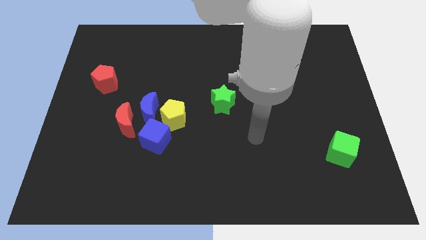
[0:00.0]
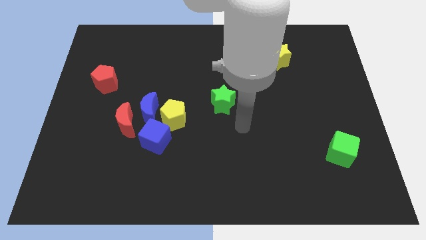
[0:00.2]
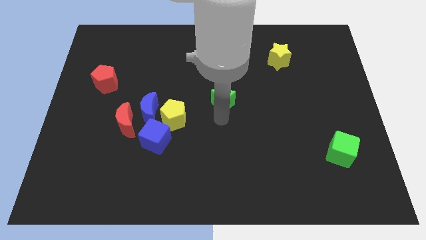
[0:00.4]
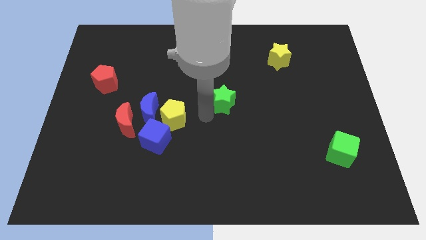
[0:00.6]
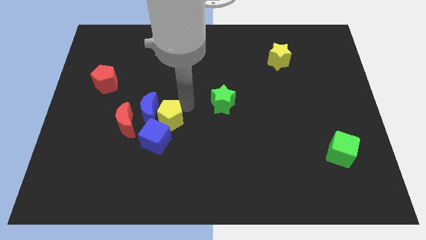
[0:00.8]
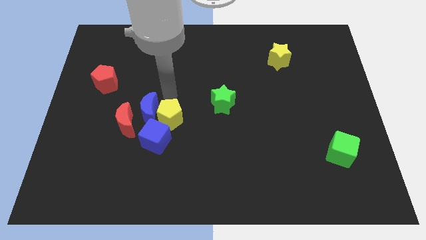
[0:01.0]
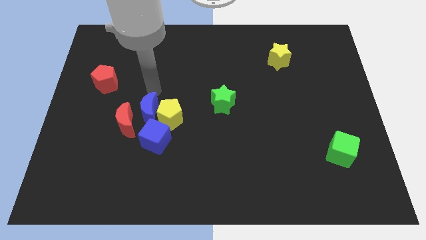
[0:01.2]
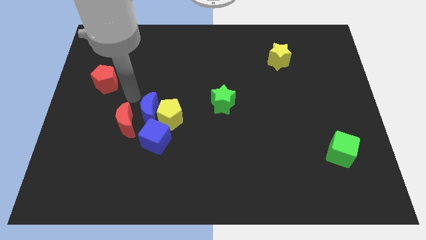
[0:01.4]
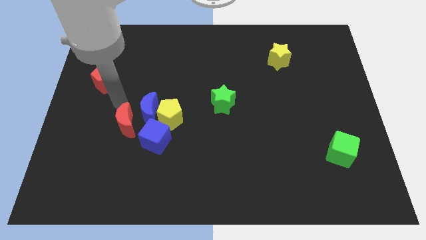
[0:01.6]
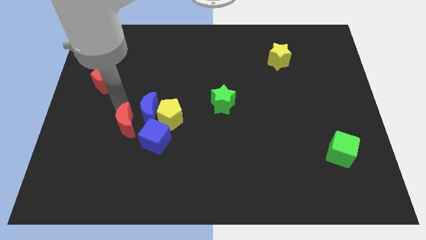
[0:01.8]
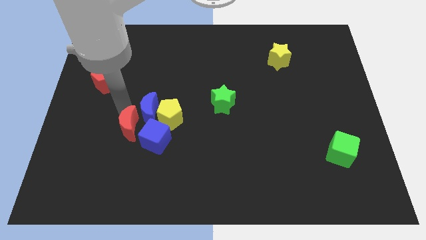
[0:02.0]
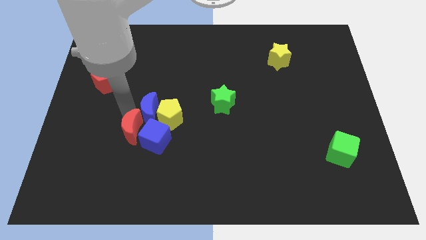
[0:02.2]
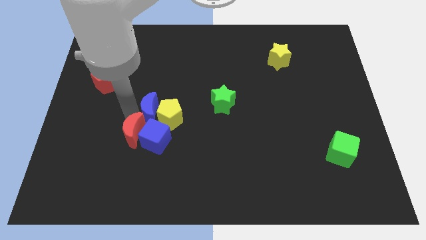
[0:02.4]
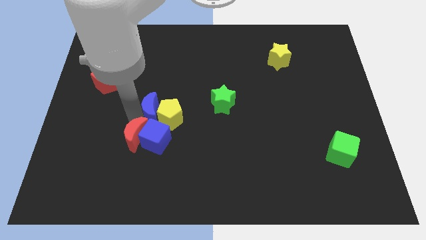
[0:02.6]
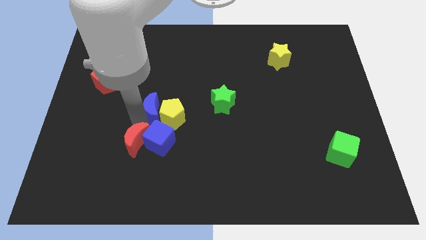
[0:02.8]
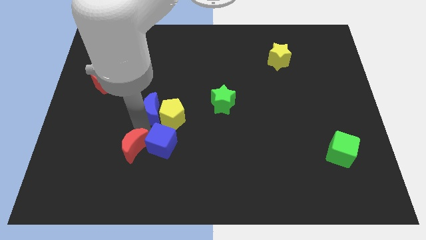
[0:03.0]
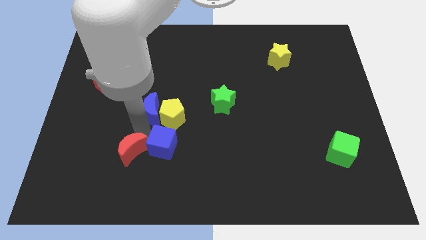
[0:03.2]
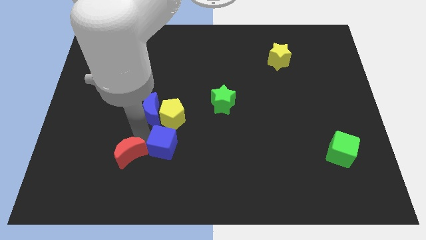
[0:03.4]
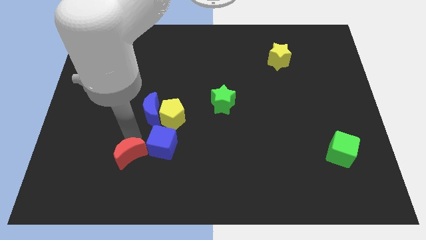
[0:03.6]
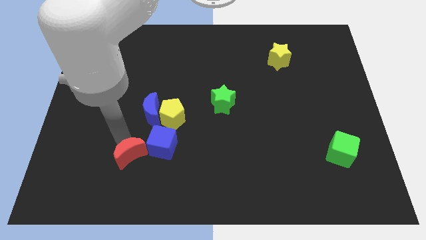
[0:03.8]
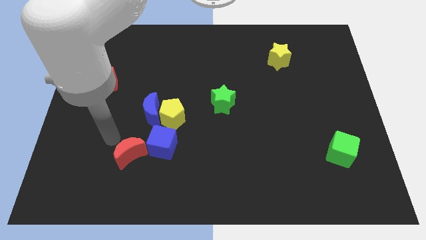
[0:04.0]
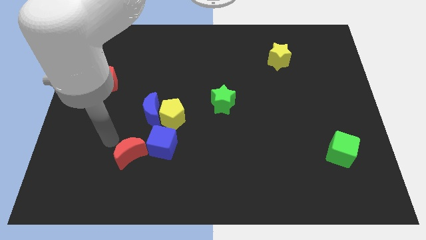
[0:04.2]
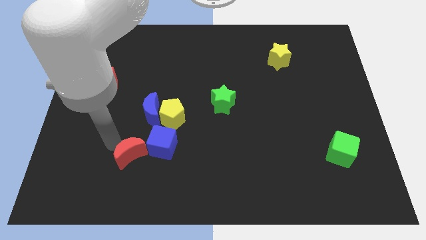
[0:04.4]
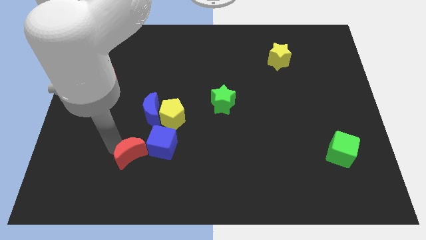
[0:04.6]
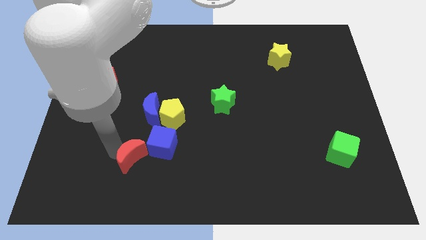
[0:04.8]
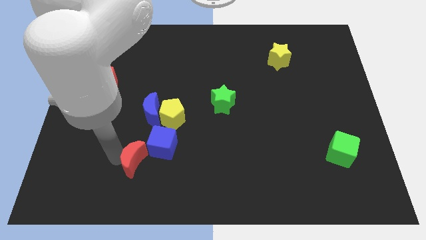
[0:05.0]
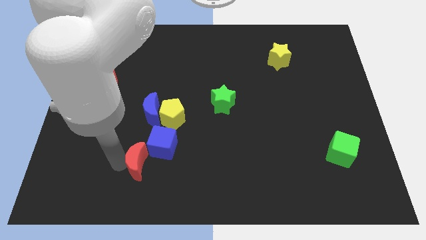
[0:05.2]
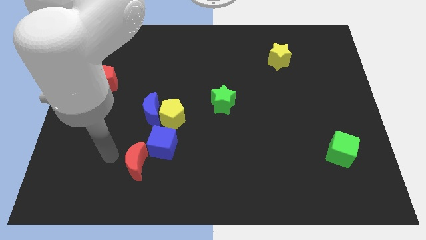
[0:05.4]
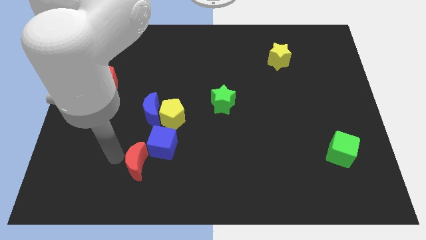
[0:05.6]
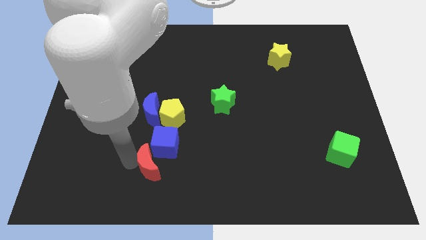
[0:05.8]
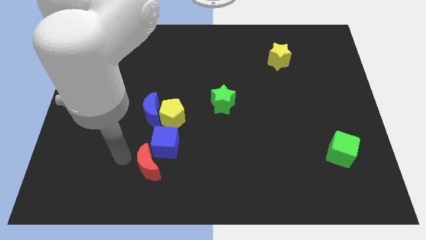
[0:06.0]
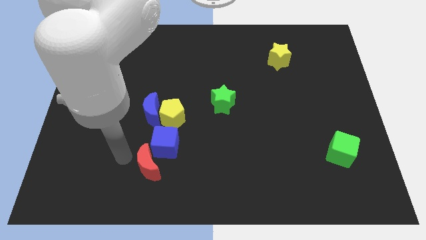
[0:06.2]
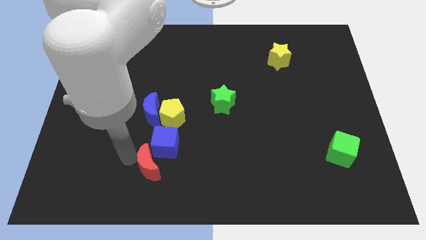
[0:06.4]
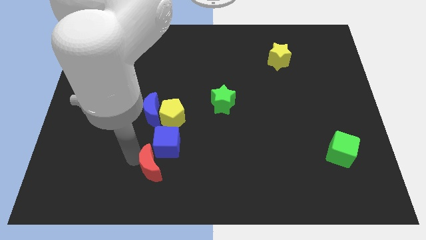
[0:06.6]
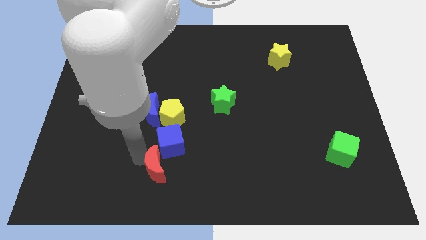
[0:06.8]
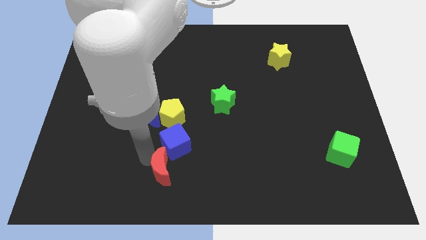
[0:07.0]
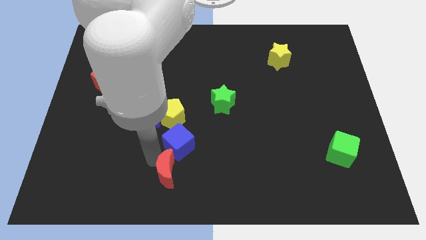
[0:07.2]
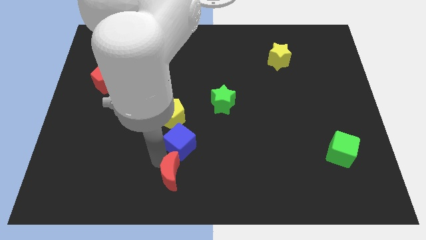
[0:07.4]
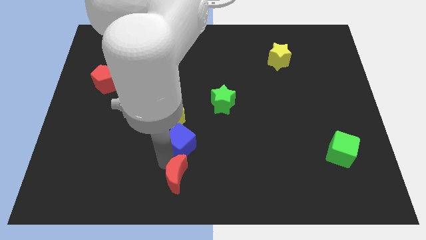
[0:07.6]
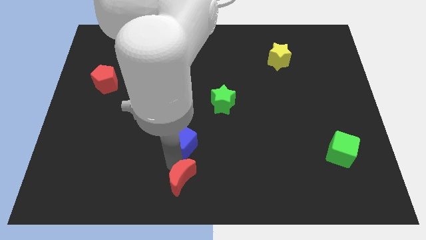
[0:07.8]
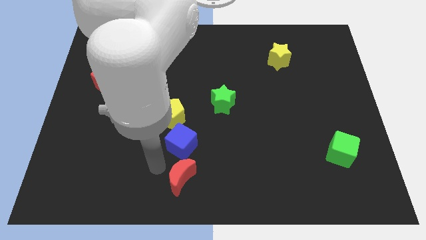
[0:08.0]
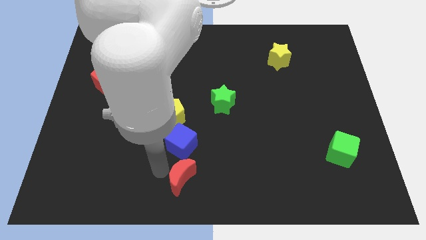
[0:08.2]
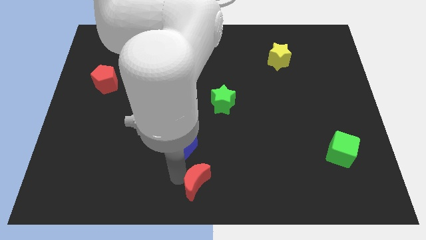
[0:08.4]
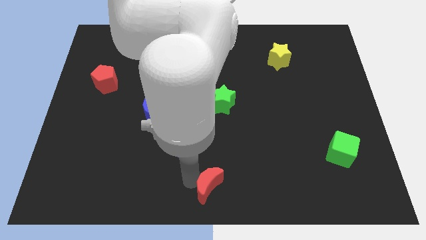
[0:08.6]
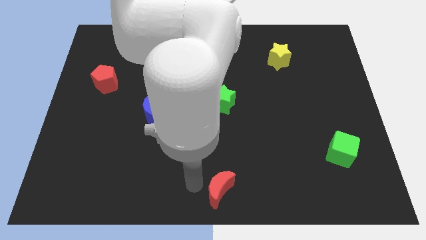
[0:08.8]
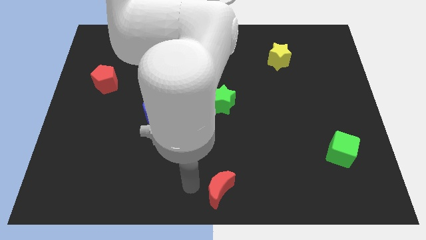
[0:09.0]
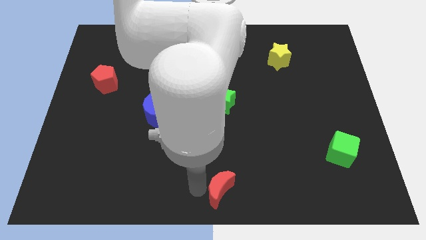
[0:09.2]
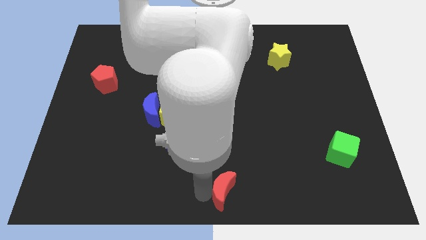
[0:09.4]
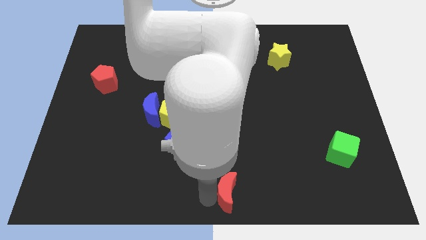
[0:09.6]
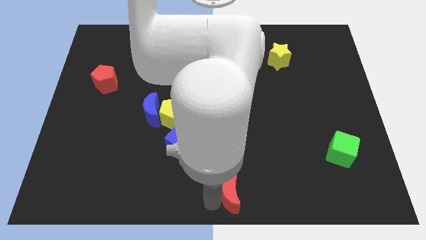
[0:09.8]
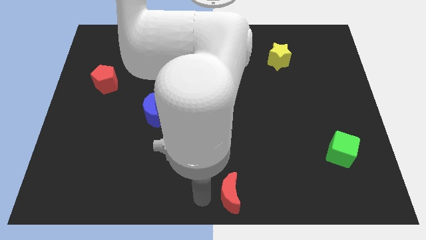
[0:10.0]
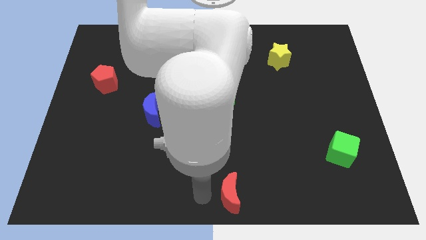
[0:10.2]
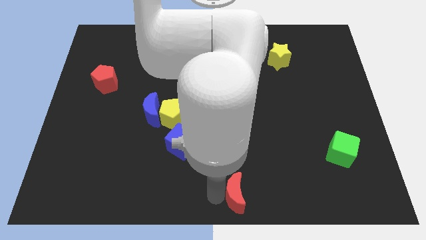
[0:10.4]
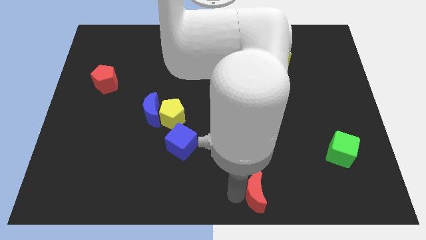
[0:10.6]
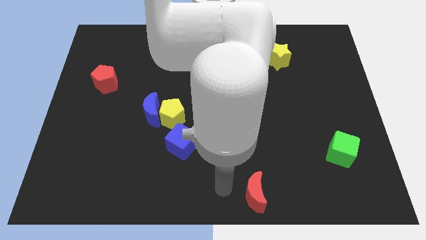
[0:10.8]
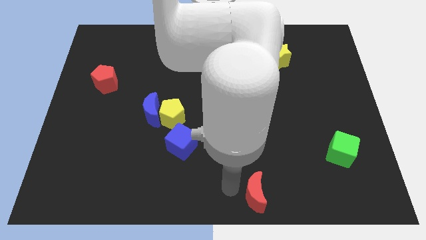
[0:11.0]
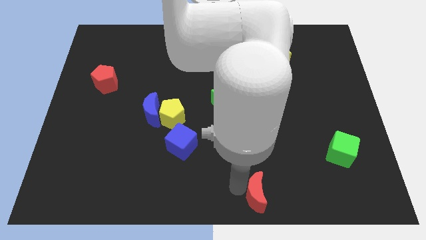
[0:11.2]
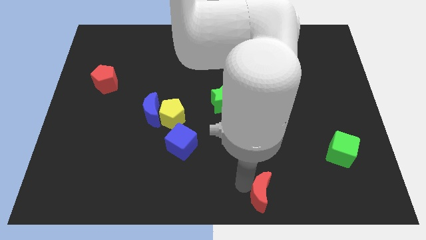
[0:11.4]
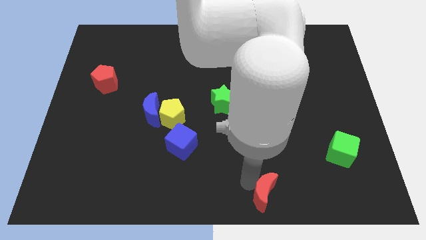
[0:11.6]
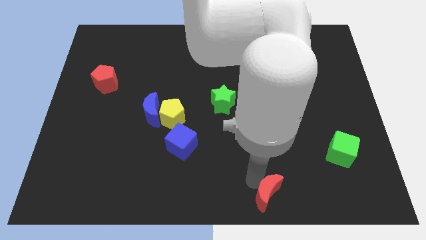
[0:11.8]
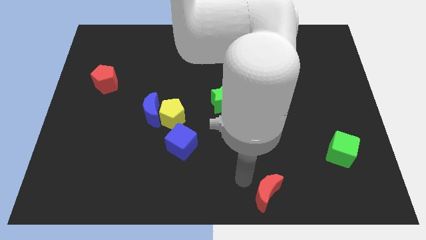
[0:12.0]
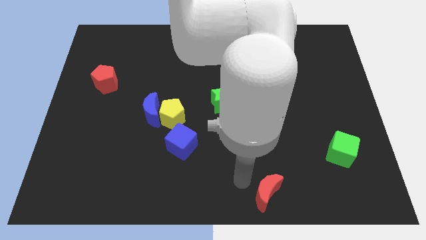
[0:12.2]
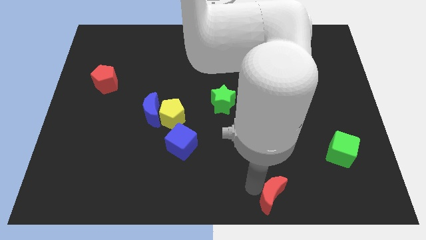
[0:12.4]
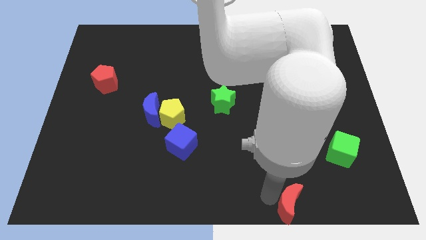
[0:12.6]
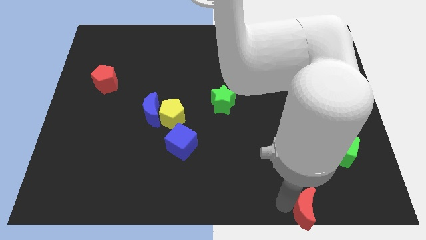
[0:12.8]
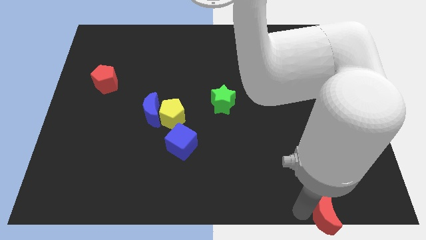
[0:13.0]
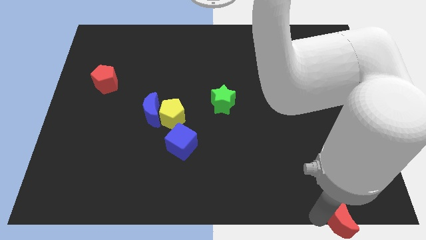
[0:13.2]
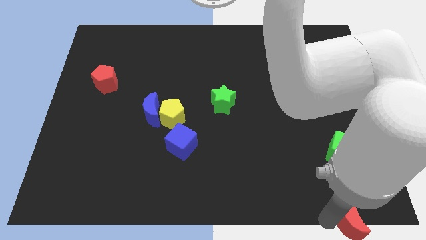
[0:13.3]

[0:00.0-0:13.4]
push the red moon to the bottom right of the board
